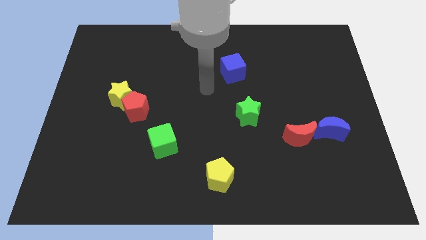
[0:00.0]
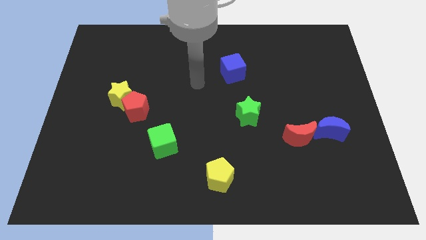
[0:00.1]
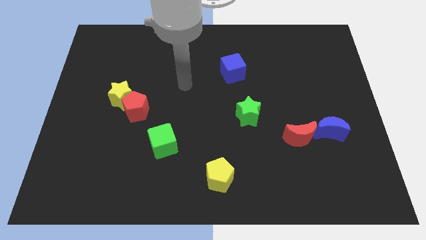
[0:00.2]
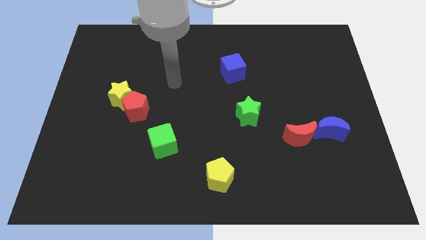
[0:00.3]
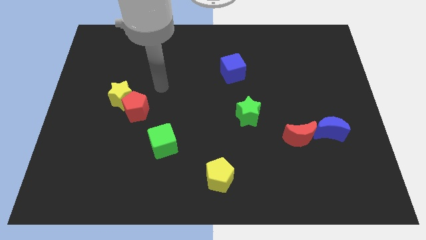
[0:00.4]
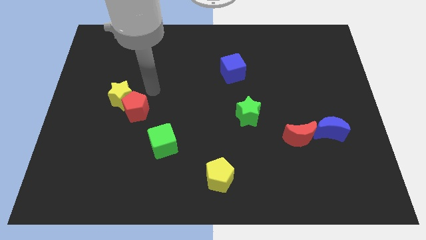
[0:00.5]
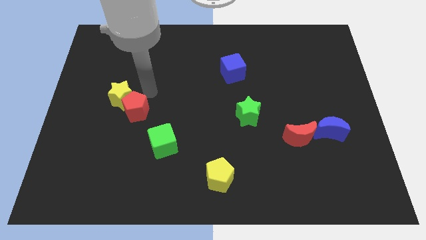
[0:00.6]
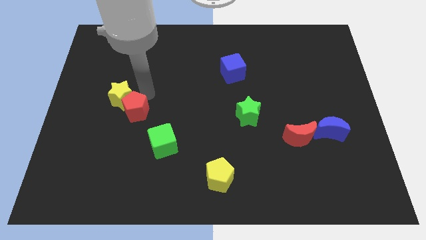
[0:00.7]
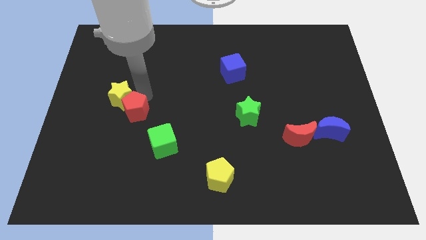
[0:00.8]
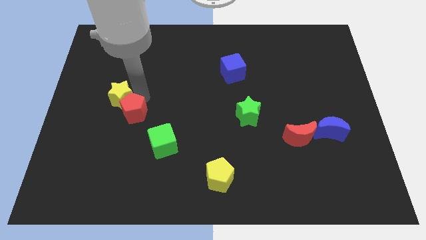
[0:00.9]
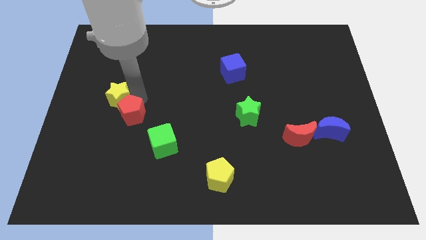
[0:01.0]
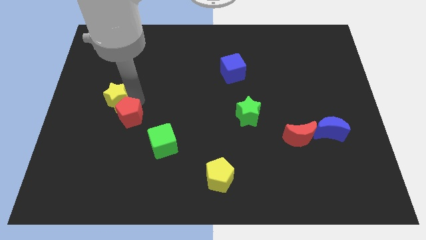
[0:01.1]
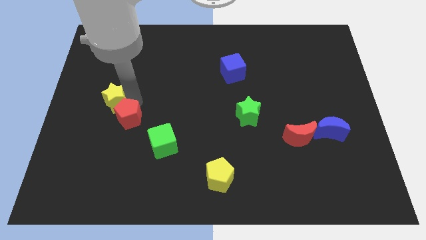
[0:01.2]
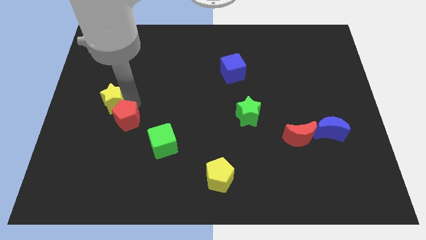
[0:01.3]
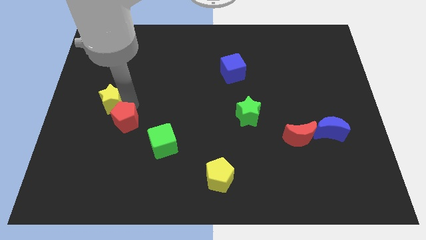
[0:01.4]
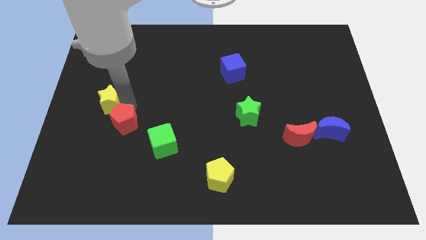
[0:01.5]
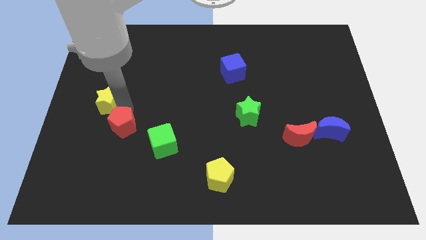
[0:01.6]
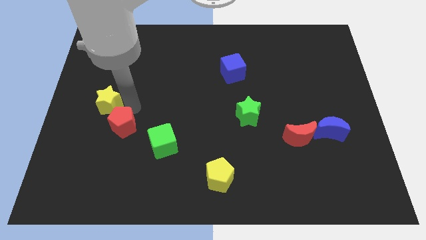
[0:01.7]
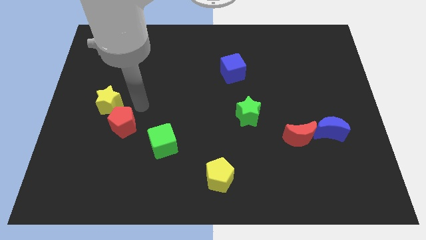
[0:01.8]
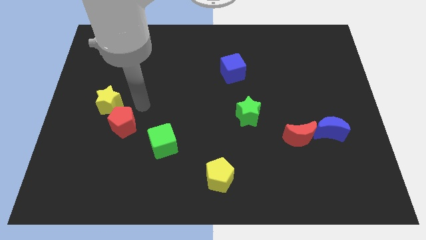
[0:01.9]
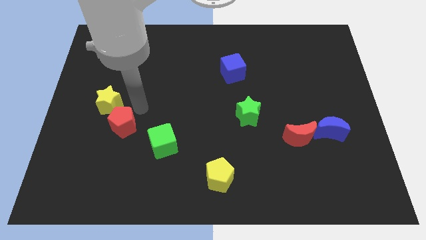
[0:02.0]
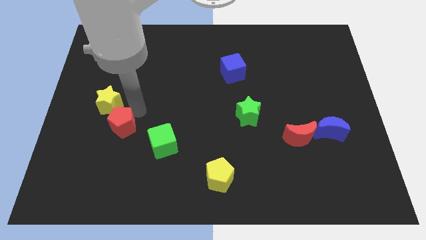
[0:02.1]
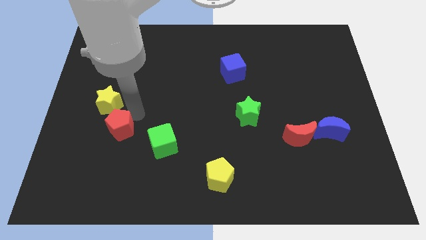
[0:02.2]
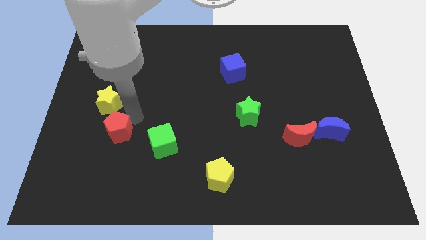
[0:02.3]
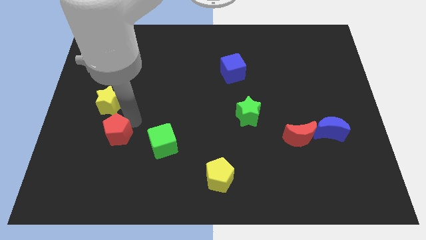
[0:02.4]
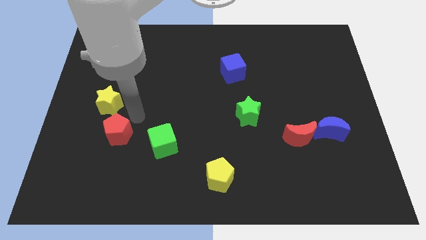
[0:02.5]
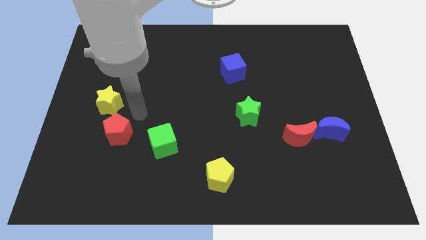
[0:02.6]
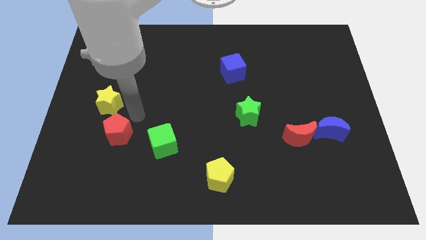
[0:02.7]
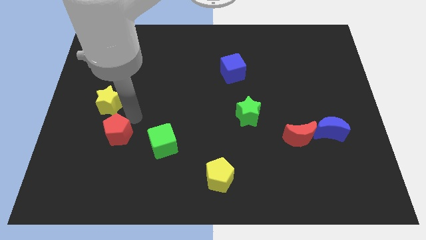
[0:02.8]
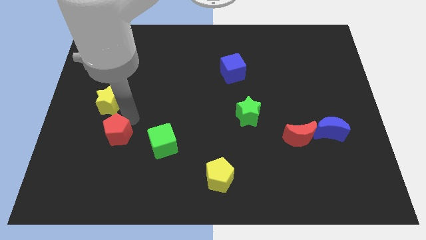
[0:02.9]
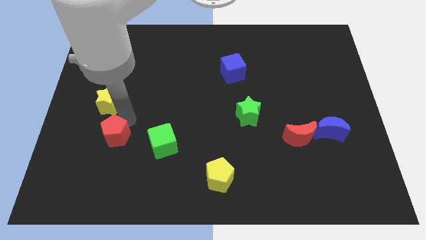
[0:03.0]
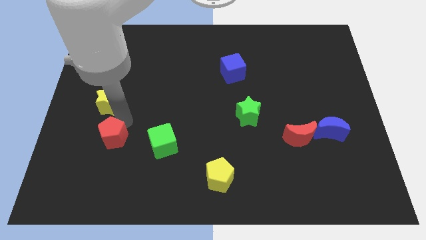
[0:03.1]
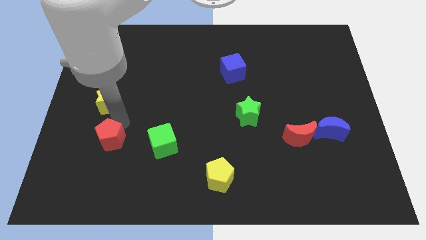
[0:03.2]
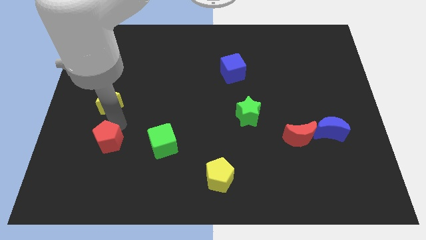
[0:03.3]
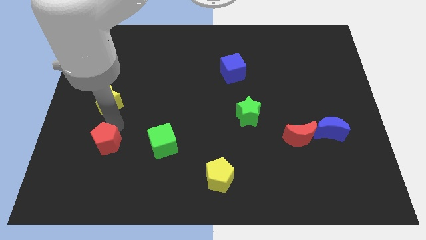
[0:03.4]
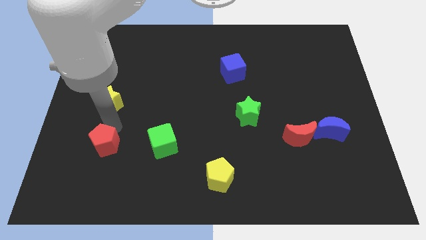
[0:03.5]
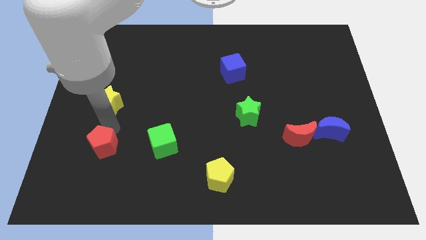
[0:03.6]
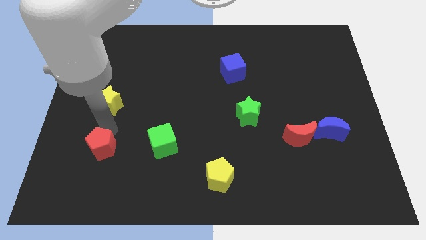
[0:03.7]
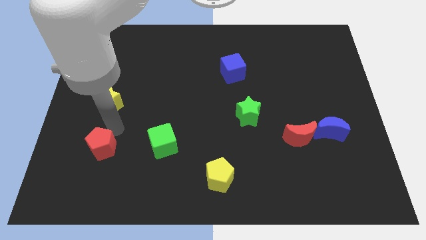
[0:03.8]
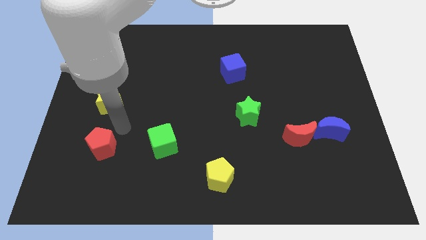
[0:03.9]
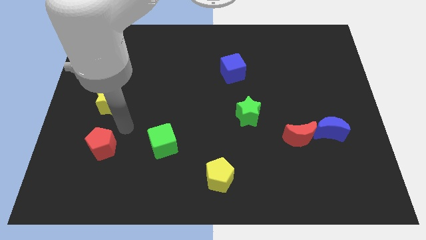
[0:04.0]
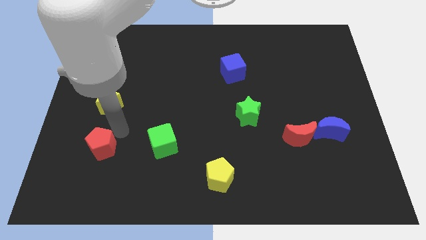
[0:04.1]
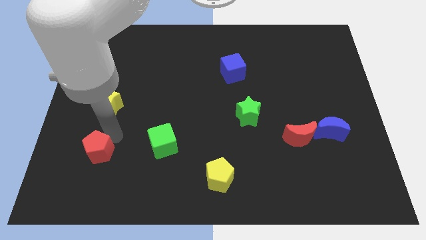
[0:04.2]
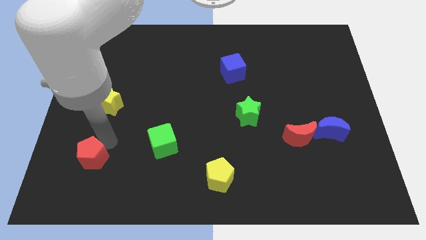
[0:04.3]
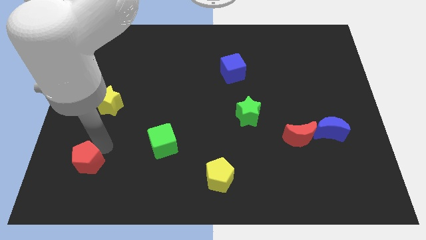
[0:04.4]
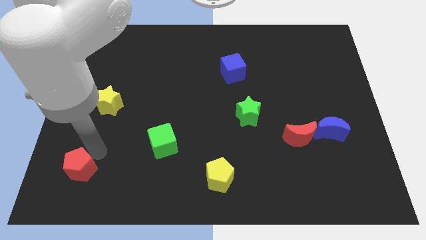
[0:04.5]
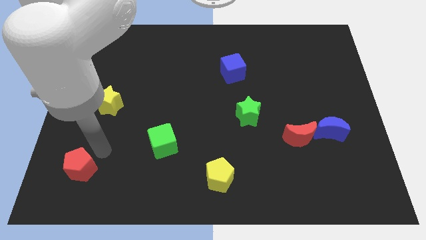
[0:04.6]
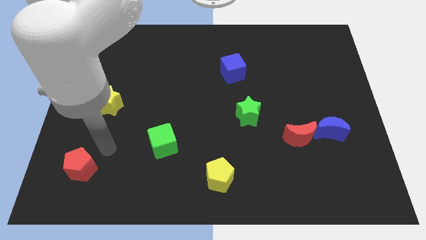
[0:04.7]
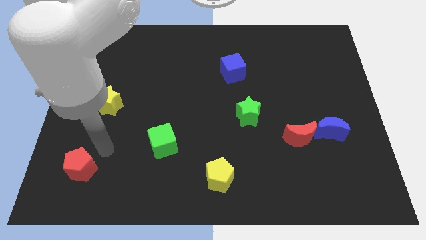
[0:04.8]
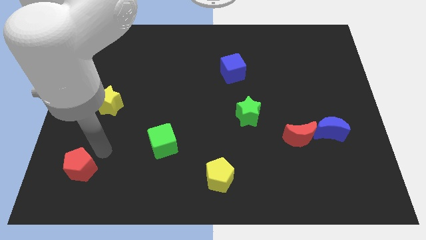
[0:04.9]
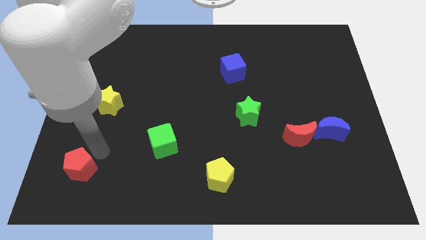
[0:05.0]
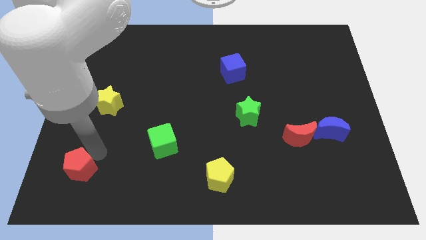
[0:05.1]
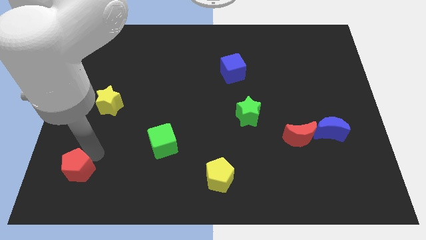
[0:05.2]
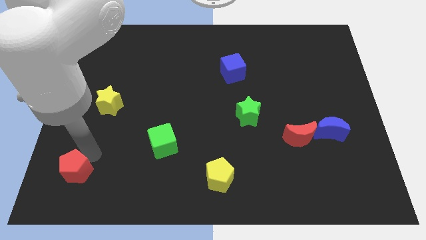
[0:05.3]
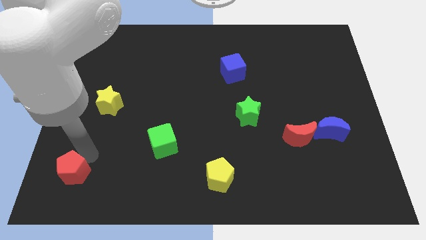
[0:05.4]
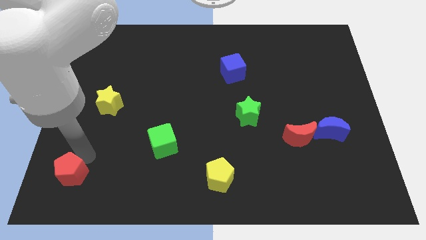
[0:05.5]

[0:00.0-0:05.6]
move the red pentagon to the bottom left of the board
